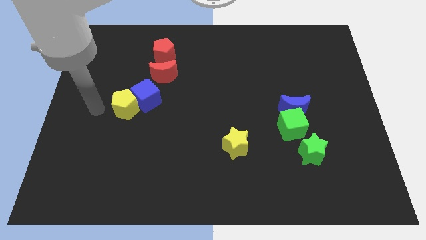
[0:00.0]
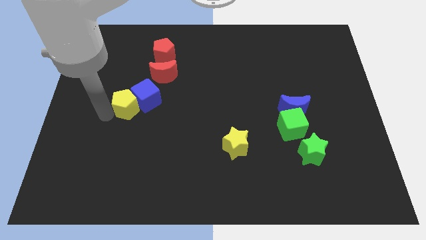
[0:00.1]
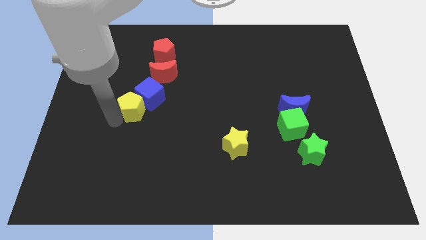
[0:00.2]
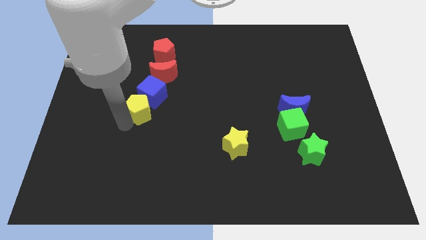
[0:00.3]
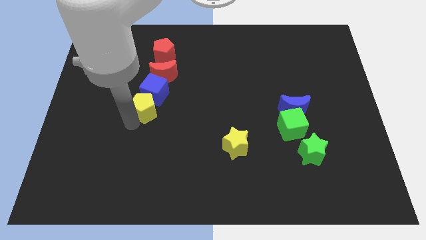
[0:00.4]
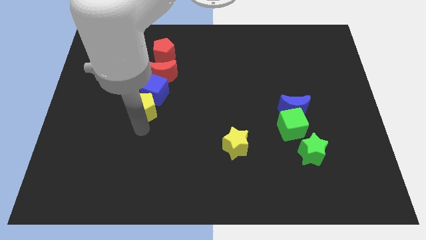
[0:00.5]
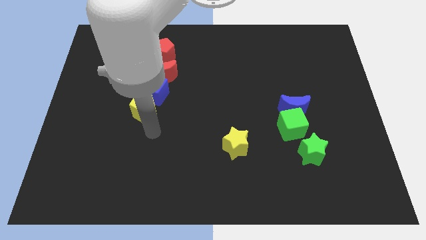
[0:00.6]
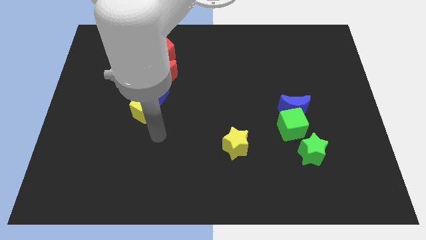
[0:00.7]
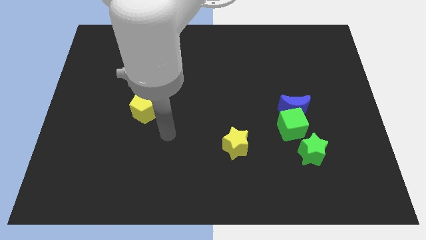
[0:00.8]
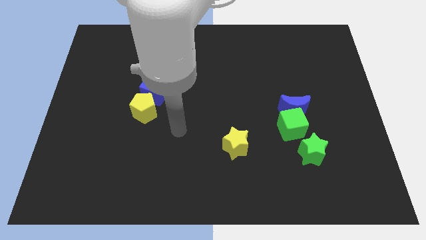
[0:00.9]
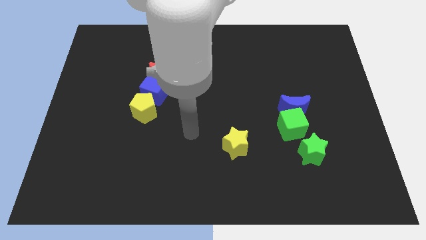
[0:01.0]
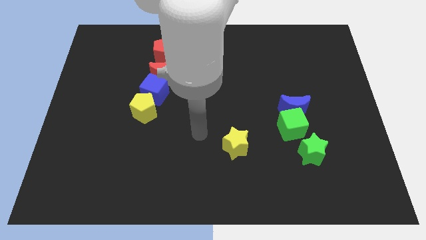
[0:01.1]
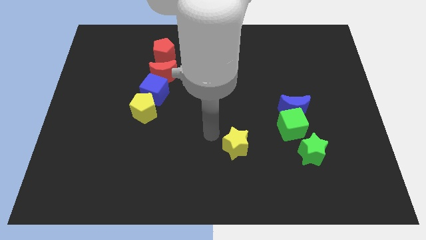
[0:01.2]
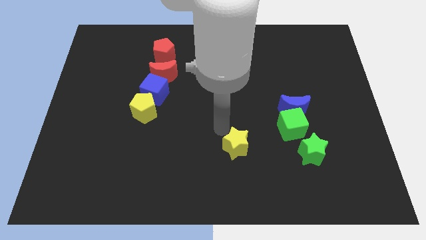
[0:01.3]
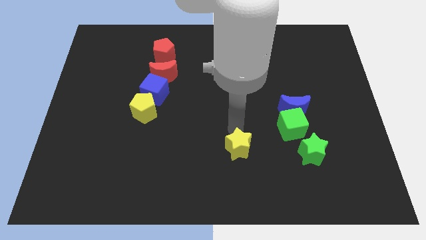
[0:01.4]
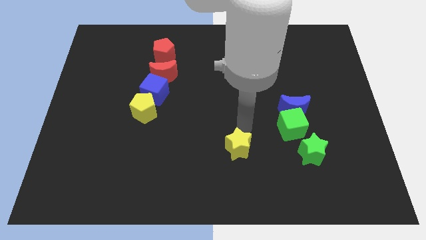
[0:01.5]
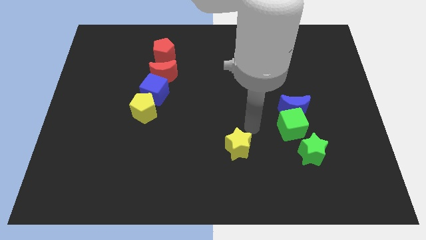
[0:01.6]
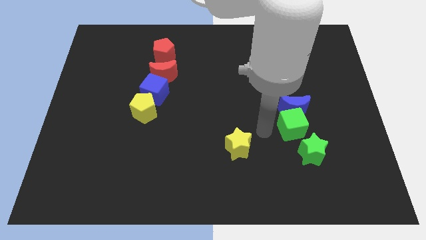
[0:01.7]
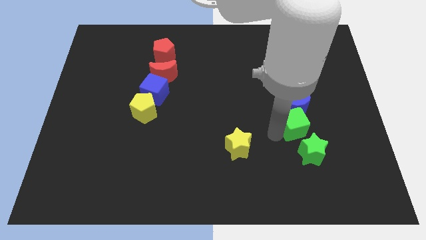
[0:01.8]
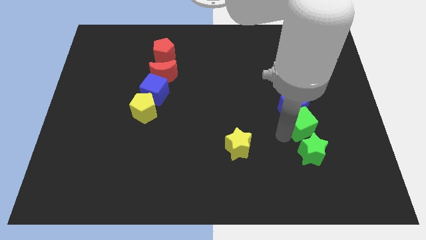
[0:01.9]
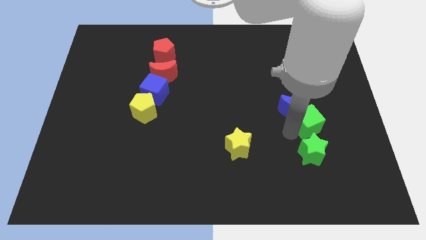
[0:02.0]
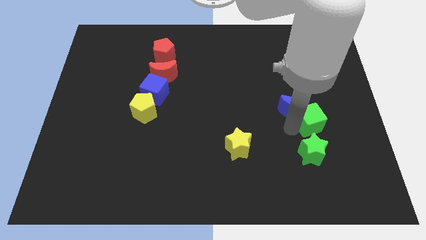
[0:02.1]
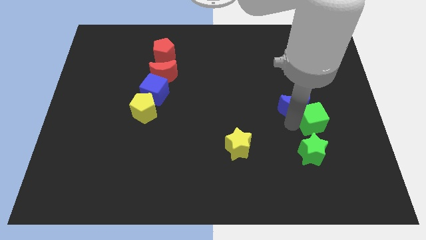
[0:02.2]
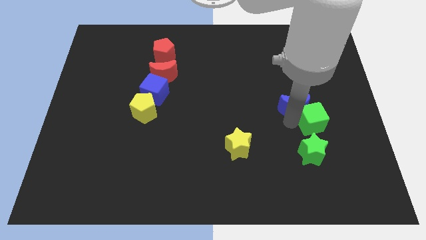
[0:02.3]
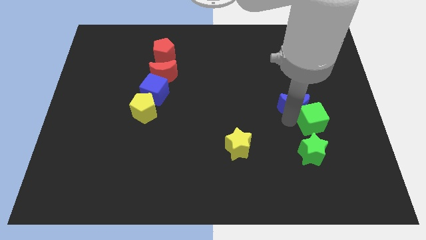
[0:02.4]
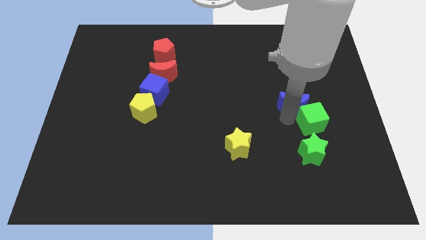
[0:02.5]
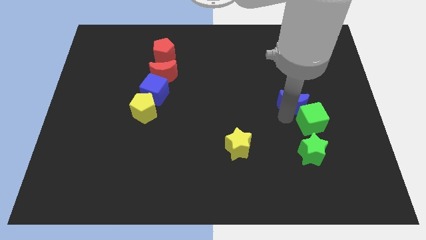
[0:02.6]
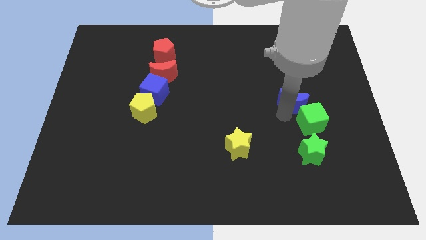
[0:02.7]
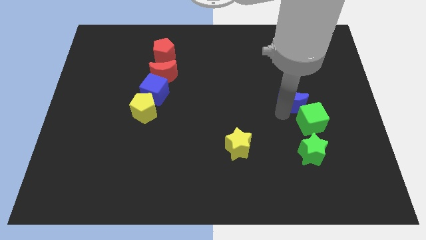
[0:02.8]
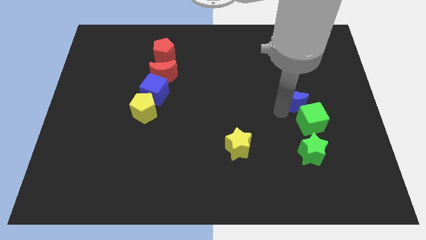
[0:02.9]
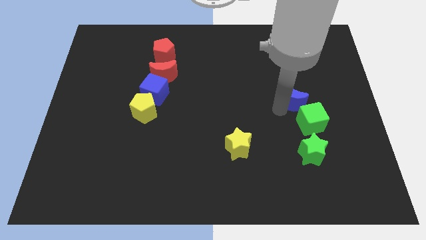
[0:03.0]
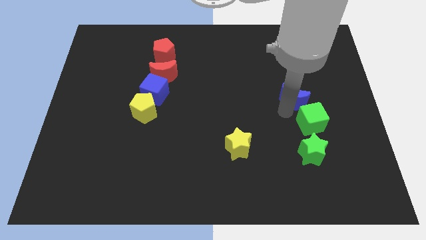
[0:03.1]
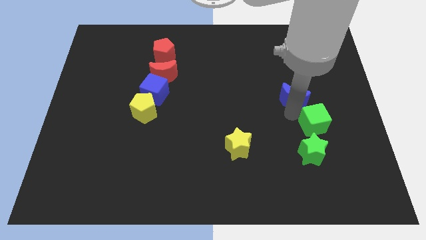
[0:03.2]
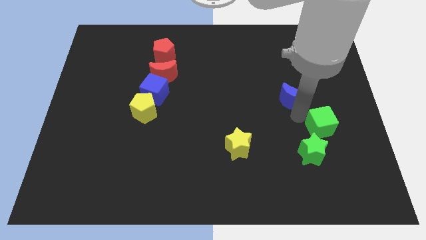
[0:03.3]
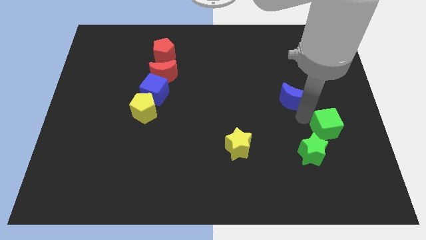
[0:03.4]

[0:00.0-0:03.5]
pull the blue moon apart from the green cube

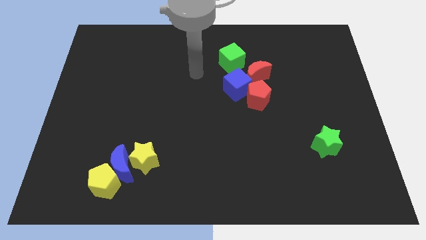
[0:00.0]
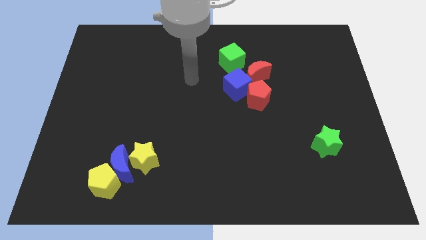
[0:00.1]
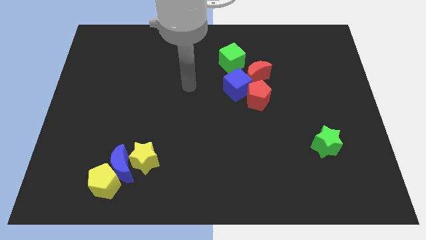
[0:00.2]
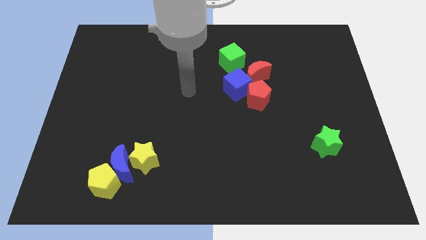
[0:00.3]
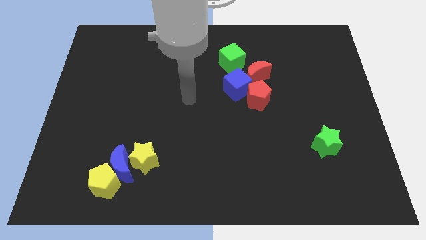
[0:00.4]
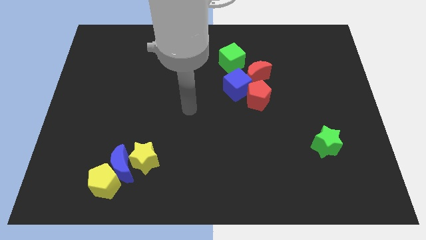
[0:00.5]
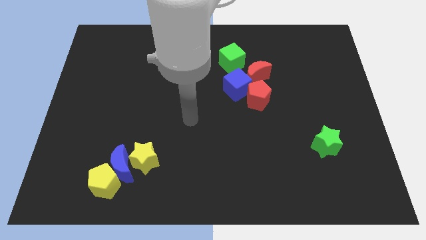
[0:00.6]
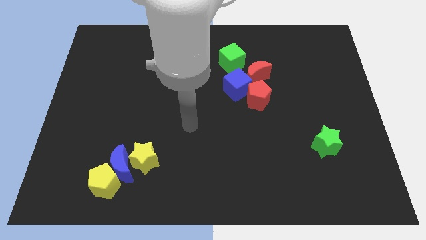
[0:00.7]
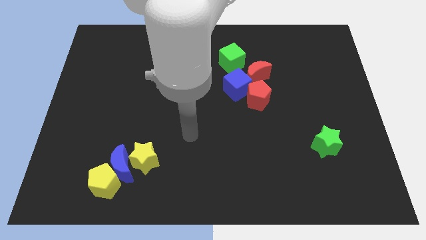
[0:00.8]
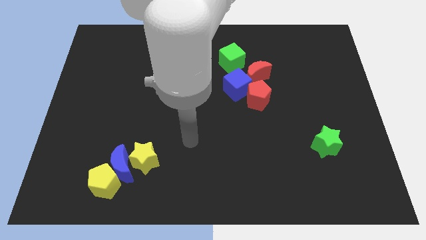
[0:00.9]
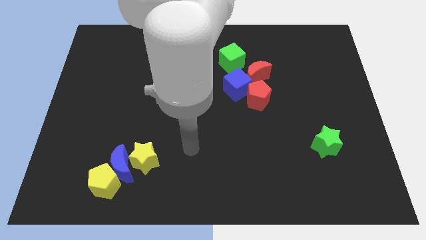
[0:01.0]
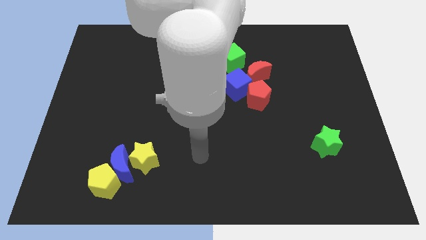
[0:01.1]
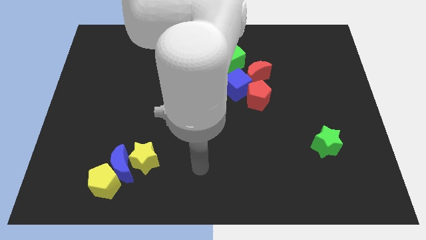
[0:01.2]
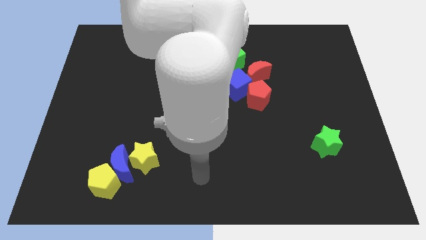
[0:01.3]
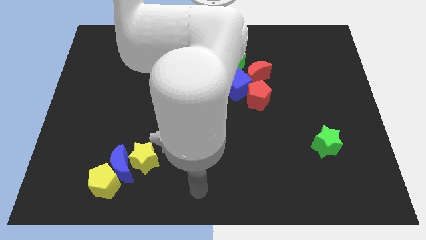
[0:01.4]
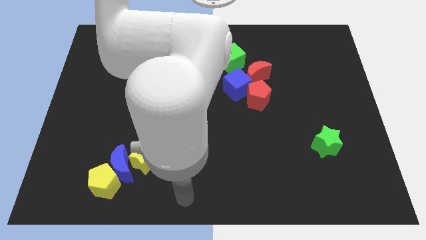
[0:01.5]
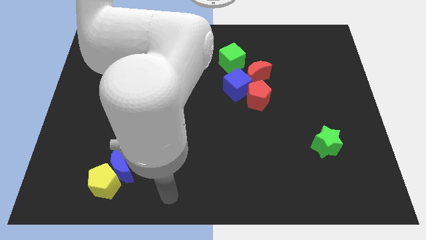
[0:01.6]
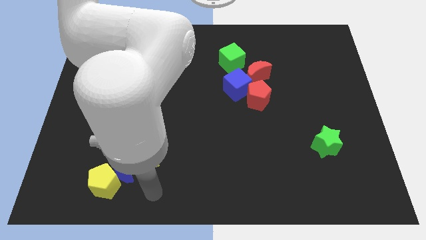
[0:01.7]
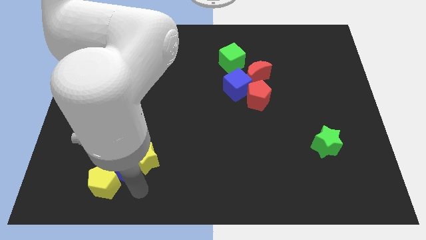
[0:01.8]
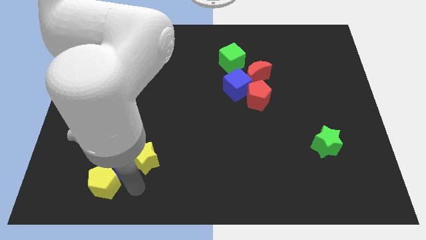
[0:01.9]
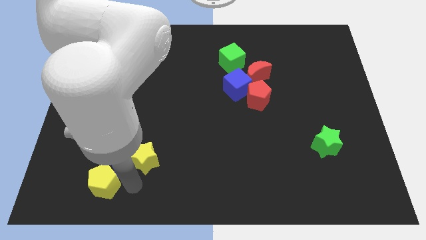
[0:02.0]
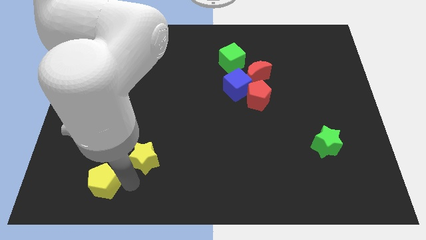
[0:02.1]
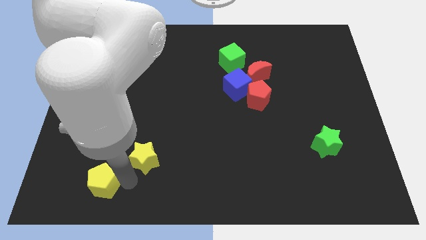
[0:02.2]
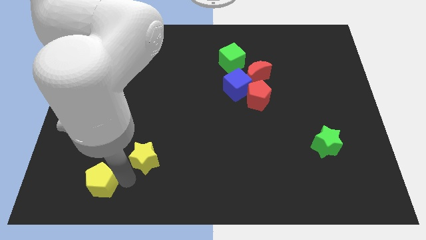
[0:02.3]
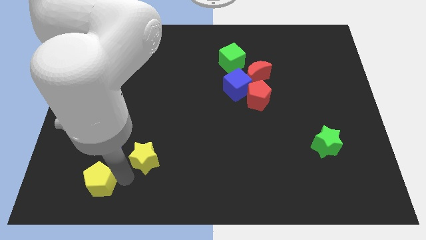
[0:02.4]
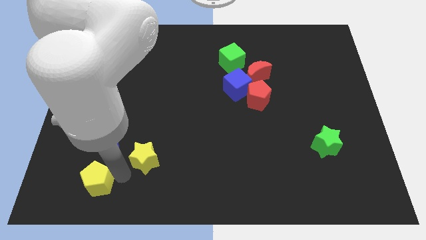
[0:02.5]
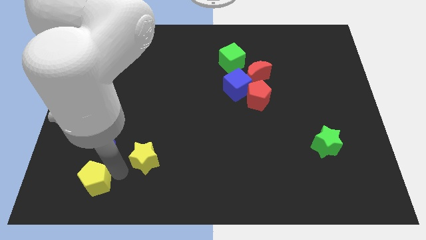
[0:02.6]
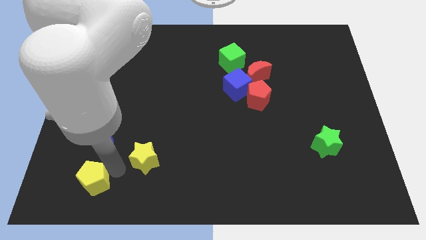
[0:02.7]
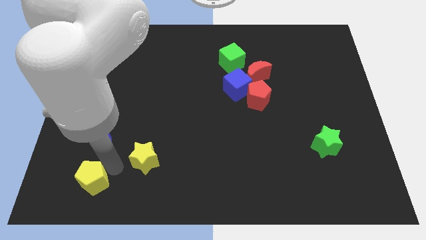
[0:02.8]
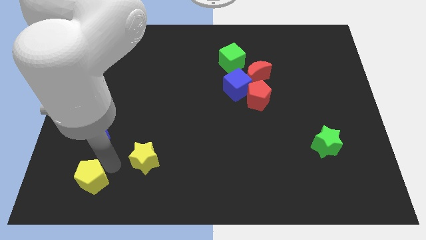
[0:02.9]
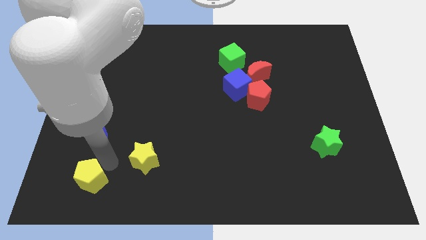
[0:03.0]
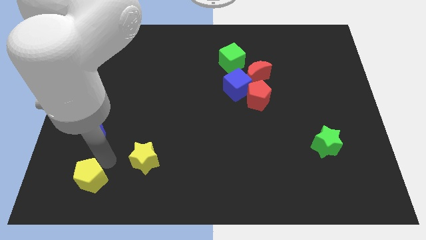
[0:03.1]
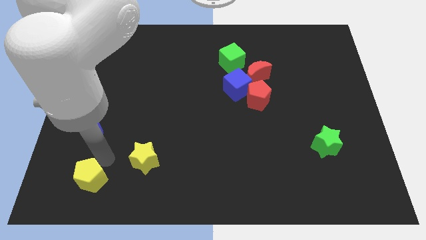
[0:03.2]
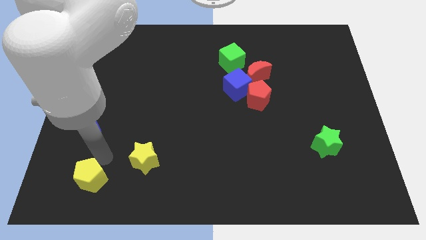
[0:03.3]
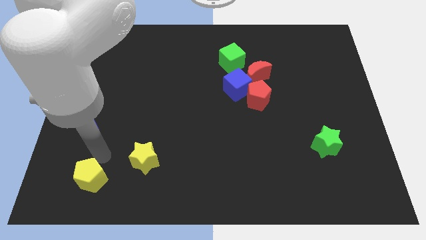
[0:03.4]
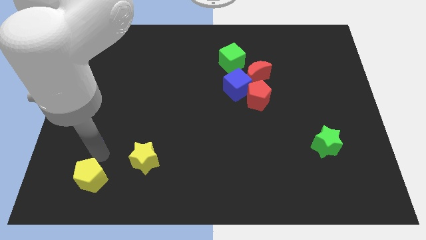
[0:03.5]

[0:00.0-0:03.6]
separate the blue moon from the yellow pentagon and yellow star

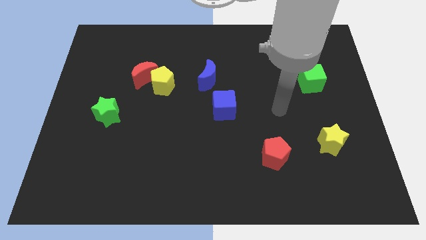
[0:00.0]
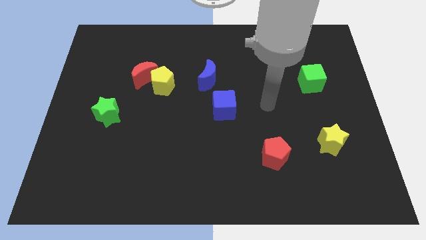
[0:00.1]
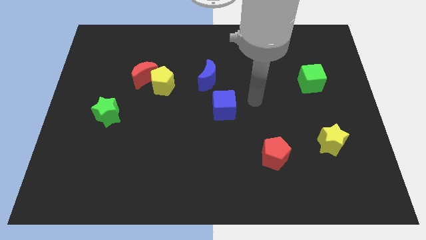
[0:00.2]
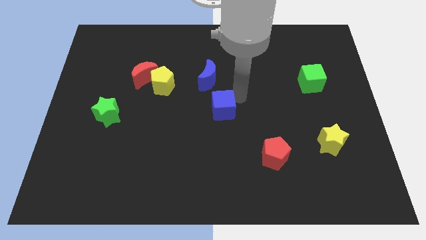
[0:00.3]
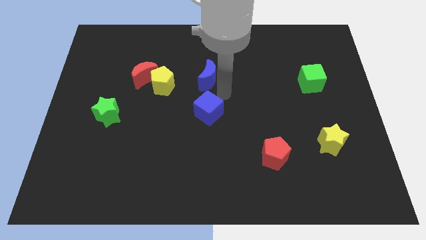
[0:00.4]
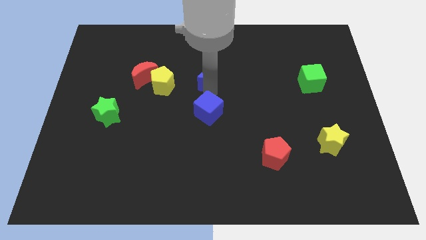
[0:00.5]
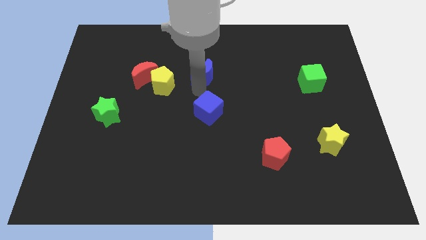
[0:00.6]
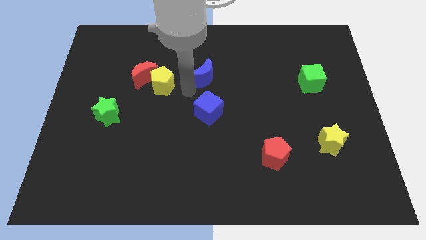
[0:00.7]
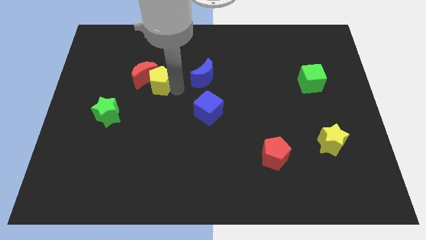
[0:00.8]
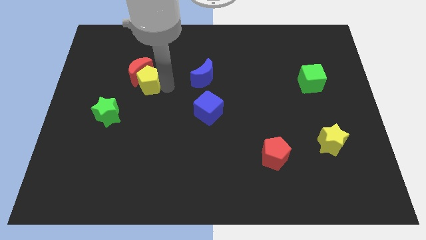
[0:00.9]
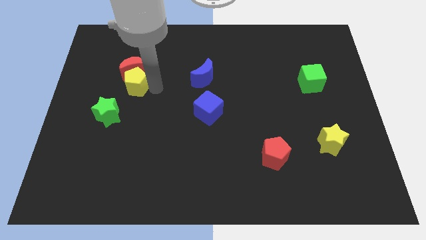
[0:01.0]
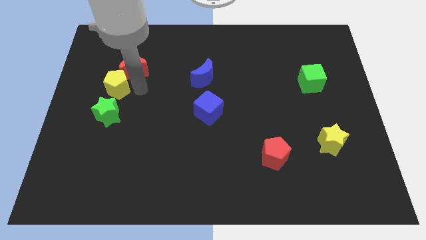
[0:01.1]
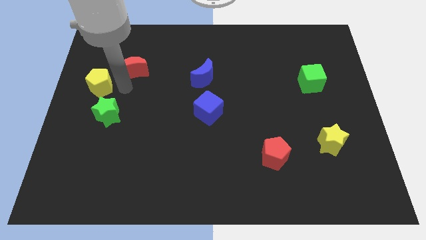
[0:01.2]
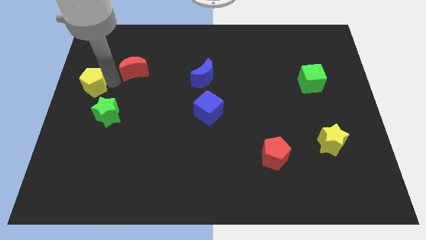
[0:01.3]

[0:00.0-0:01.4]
pull the red moon apart from the yellow pentagon

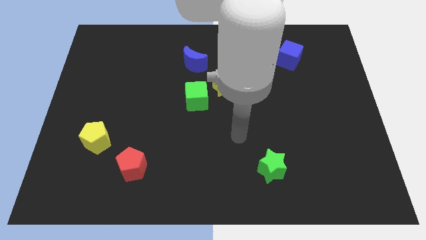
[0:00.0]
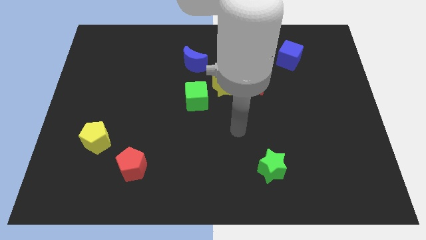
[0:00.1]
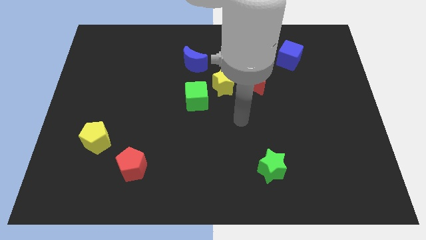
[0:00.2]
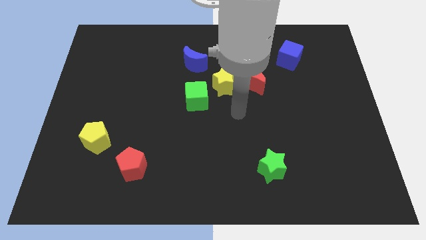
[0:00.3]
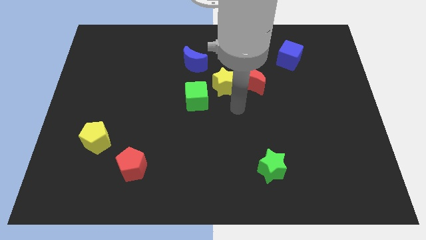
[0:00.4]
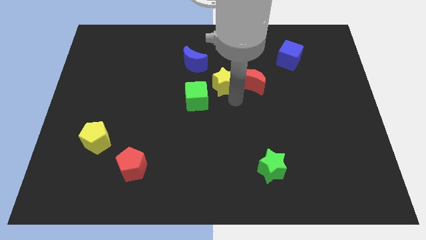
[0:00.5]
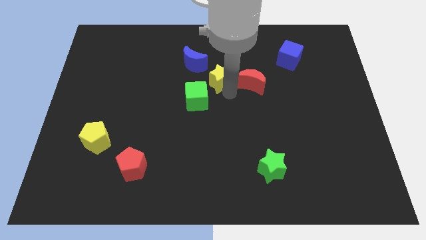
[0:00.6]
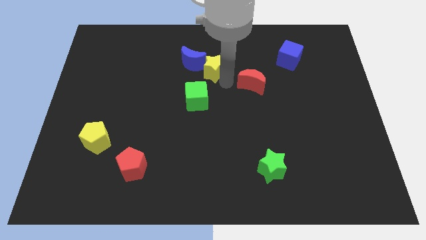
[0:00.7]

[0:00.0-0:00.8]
separate the red moon from the yellow star

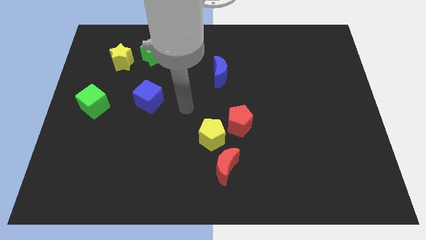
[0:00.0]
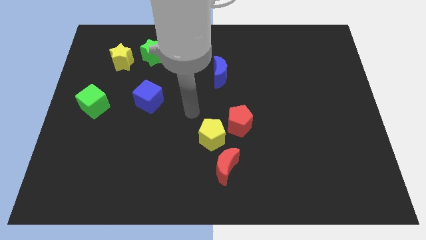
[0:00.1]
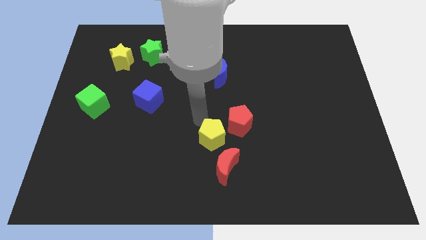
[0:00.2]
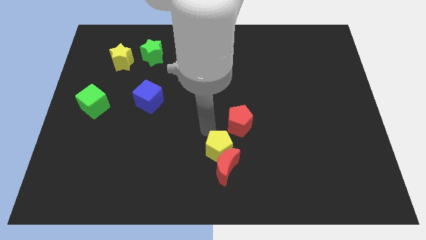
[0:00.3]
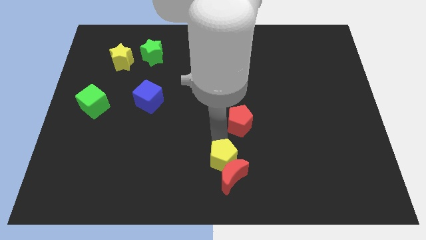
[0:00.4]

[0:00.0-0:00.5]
move the red pentagon away from the yellow pentagon
